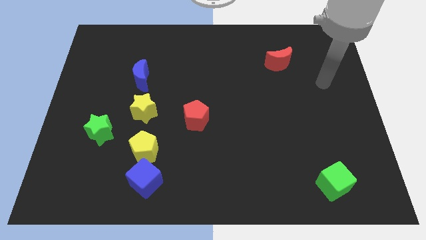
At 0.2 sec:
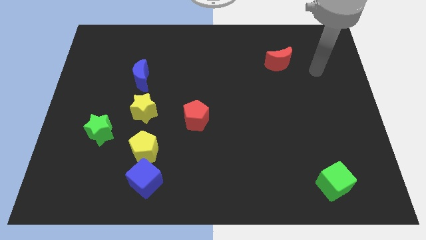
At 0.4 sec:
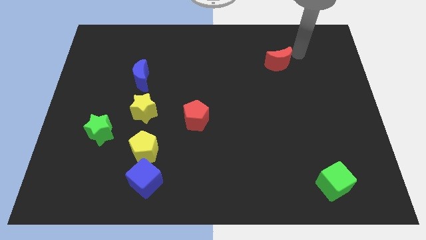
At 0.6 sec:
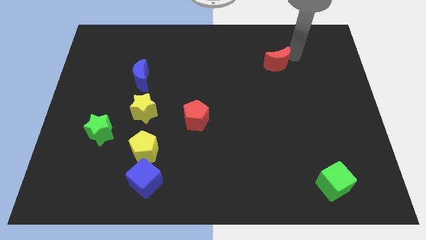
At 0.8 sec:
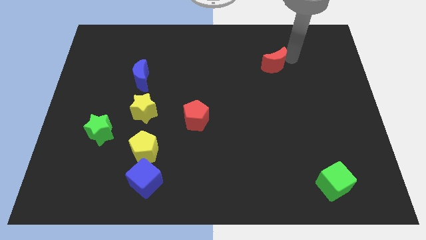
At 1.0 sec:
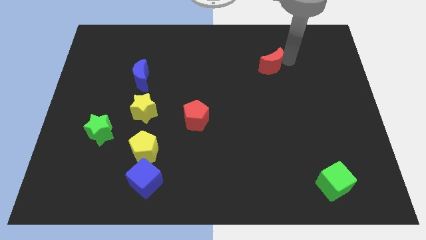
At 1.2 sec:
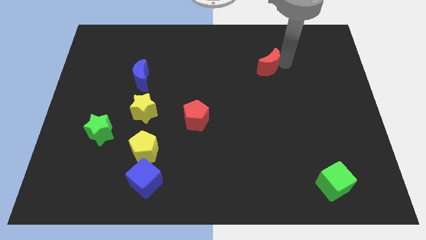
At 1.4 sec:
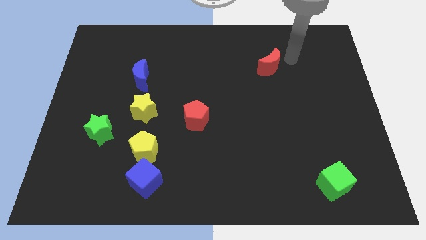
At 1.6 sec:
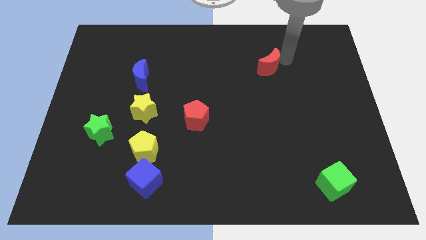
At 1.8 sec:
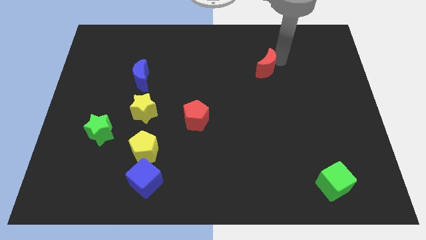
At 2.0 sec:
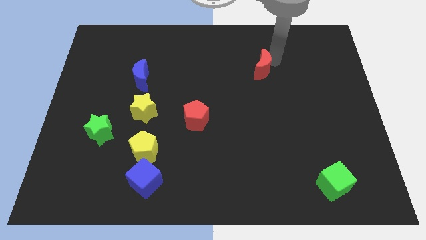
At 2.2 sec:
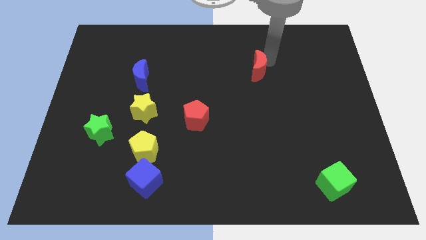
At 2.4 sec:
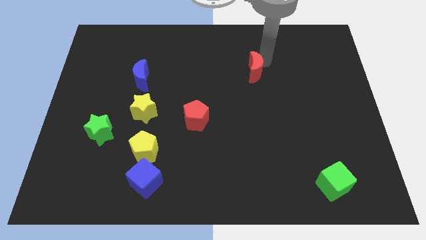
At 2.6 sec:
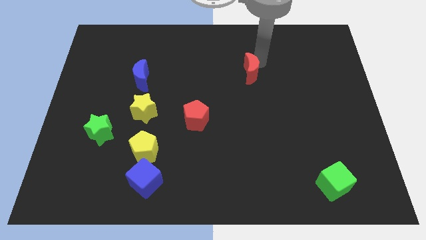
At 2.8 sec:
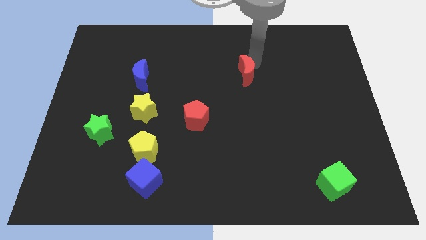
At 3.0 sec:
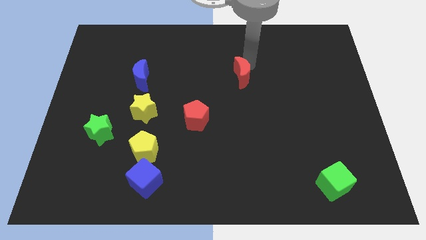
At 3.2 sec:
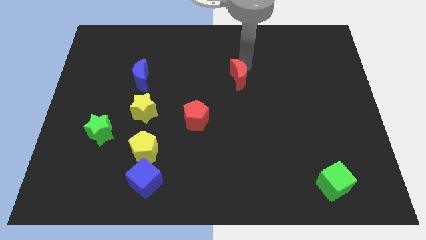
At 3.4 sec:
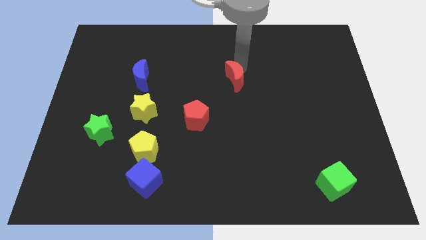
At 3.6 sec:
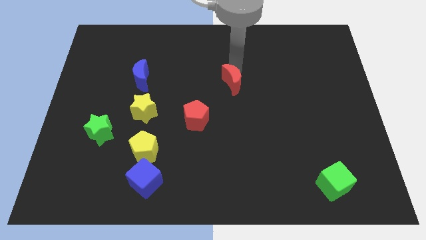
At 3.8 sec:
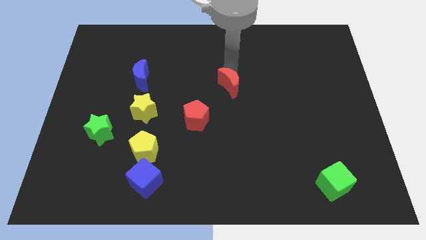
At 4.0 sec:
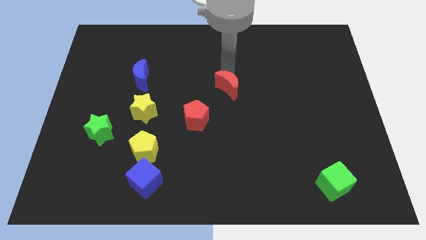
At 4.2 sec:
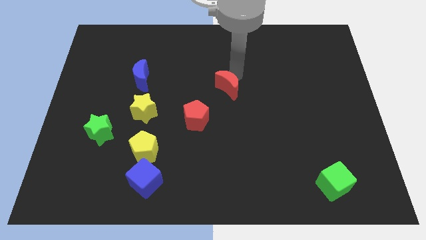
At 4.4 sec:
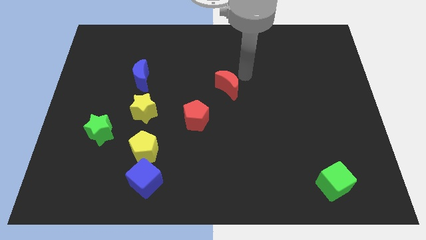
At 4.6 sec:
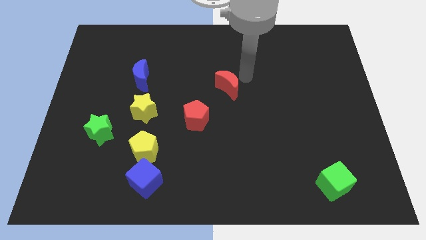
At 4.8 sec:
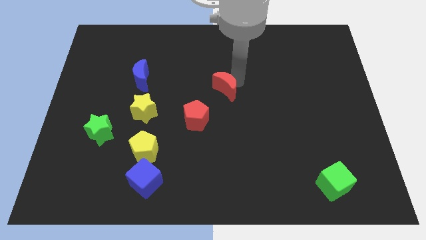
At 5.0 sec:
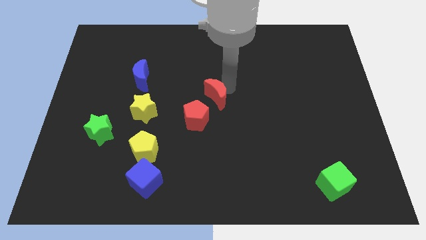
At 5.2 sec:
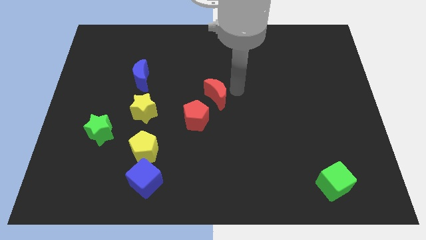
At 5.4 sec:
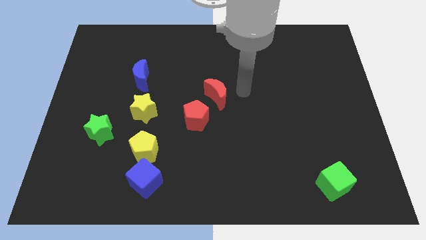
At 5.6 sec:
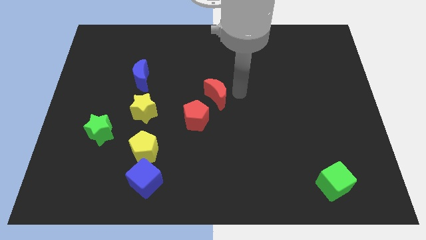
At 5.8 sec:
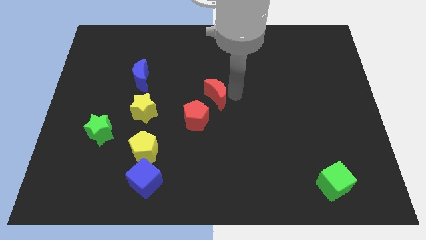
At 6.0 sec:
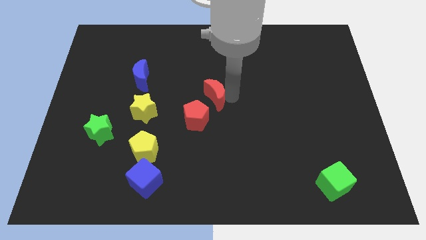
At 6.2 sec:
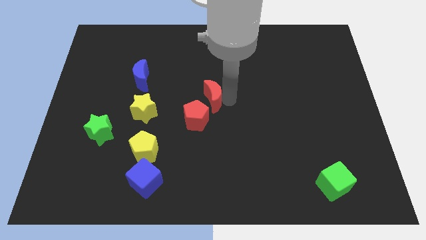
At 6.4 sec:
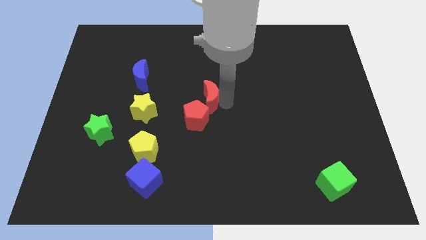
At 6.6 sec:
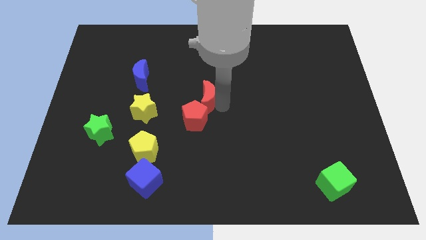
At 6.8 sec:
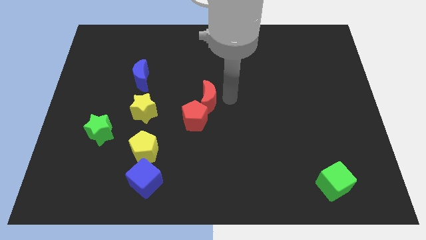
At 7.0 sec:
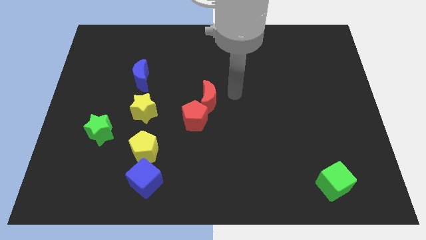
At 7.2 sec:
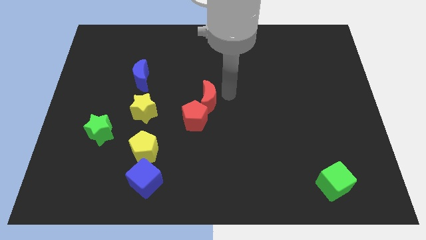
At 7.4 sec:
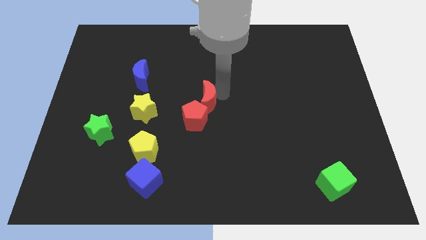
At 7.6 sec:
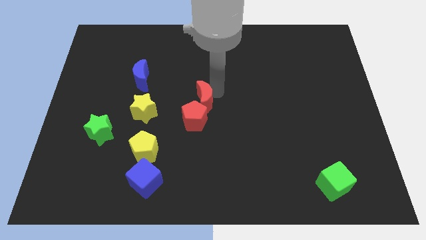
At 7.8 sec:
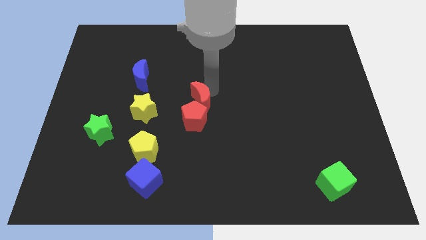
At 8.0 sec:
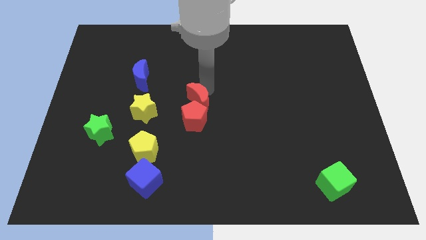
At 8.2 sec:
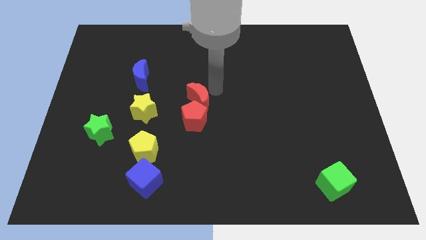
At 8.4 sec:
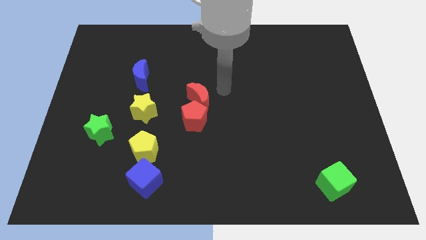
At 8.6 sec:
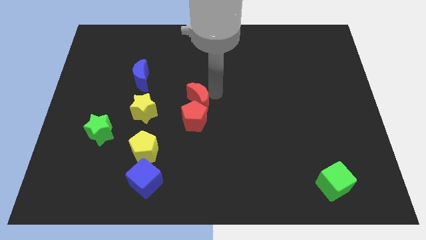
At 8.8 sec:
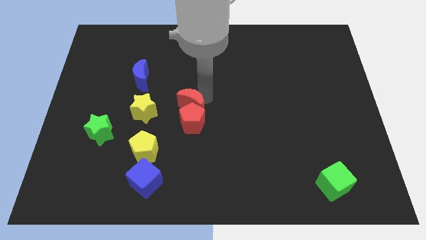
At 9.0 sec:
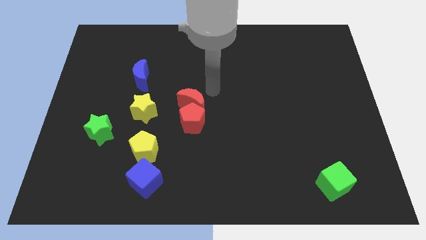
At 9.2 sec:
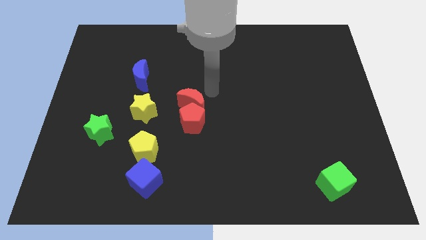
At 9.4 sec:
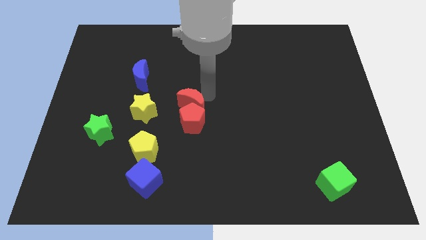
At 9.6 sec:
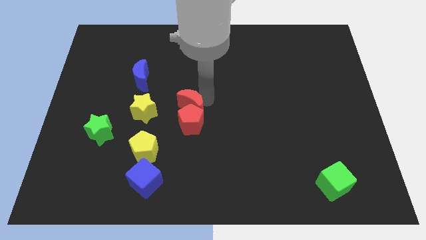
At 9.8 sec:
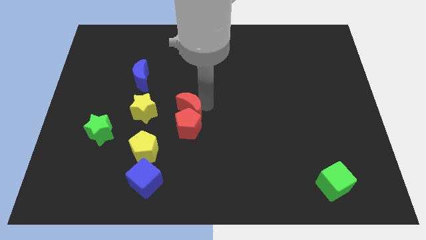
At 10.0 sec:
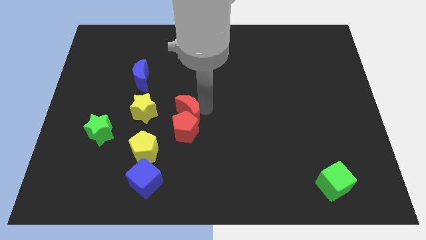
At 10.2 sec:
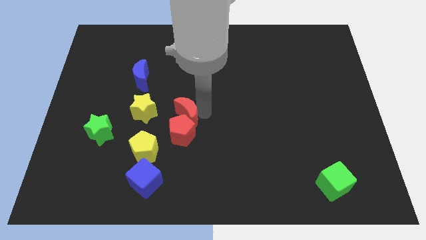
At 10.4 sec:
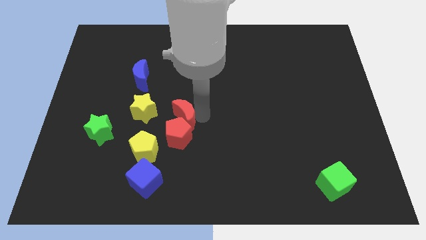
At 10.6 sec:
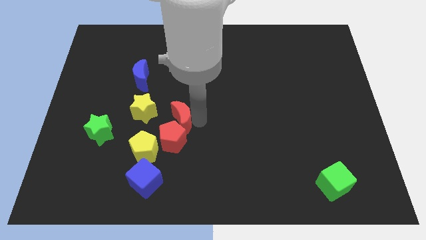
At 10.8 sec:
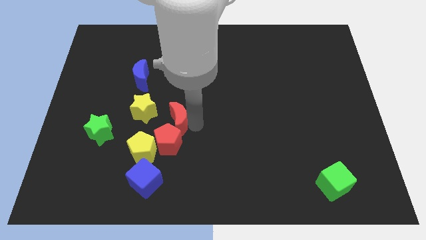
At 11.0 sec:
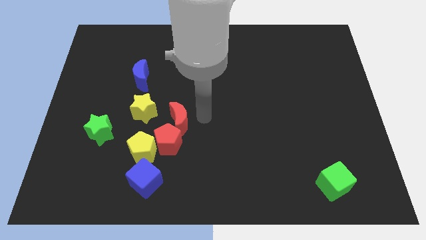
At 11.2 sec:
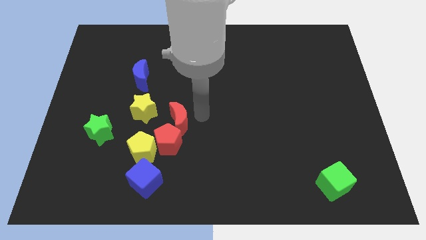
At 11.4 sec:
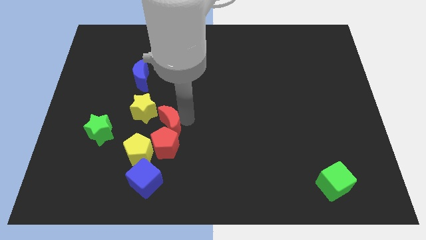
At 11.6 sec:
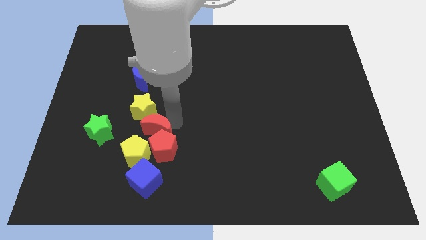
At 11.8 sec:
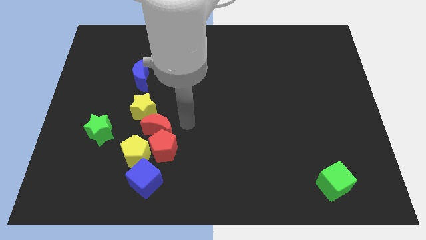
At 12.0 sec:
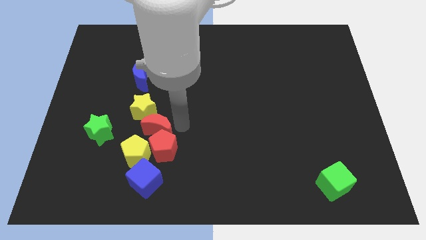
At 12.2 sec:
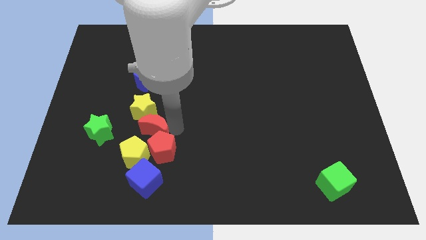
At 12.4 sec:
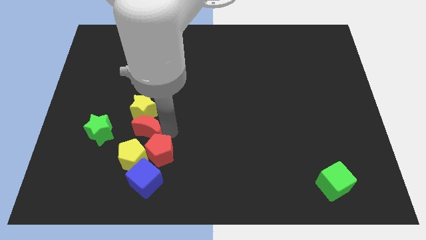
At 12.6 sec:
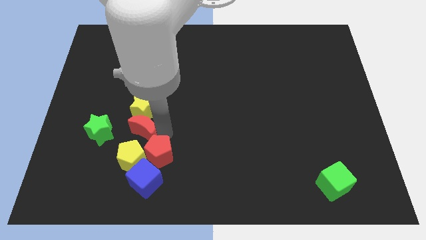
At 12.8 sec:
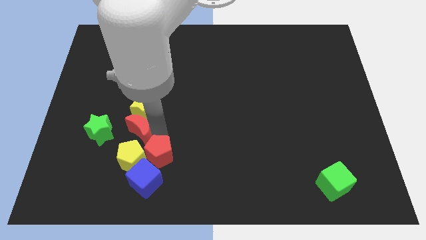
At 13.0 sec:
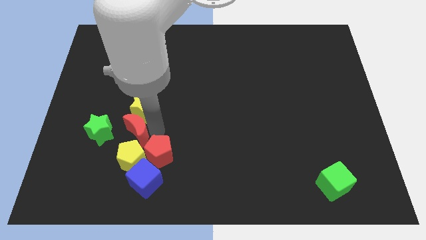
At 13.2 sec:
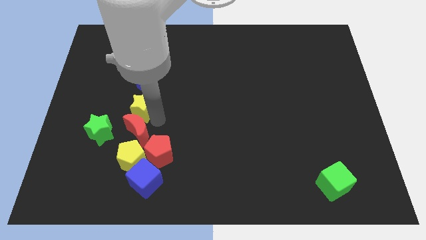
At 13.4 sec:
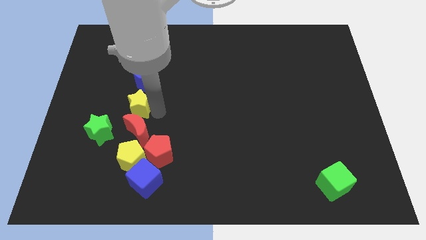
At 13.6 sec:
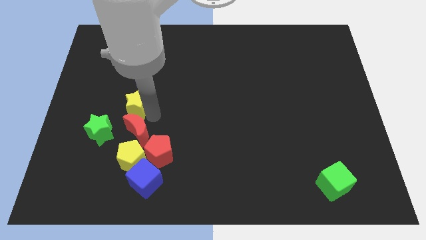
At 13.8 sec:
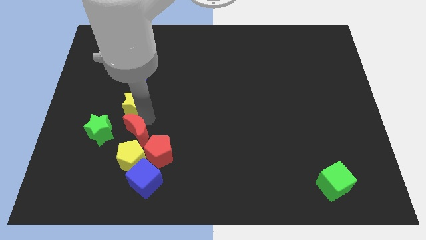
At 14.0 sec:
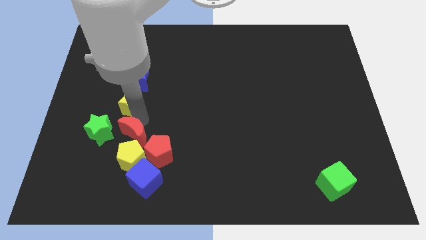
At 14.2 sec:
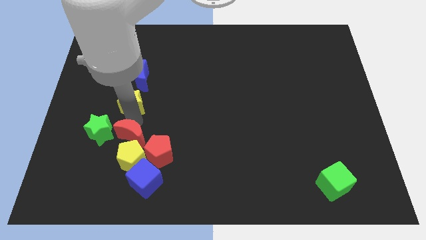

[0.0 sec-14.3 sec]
put the red moon diagonally down and to the right of the green star
